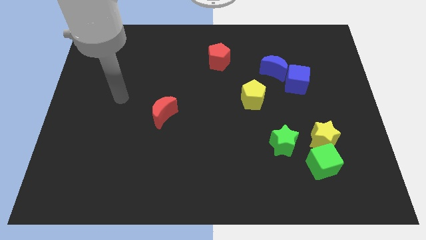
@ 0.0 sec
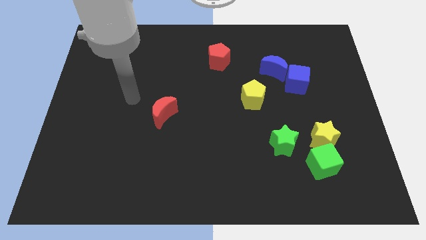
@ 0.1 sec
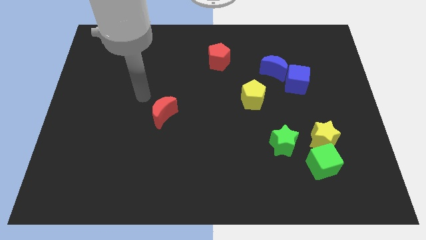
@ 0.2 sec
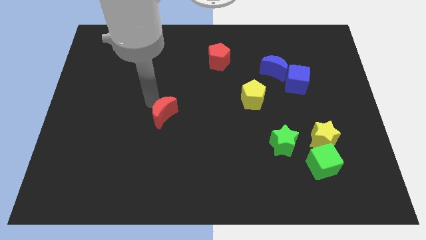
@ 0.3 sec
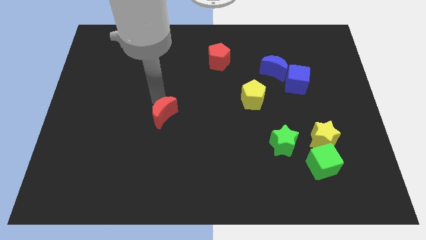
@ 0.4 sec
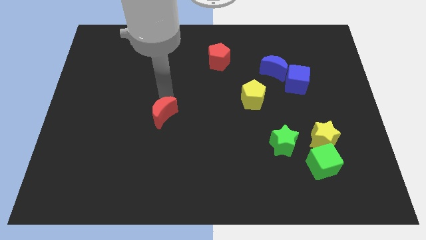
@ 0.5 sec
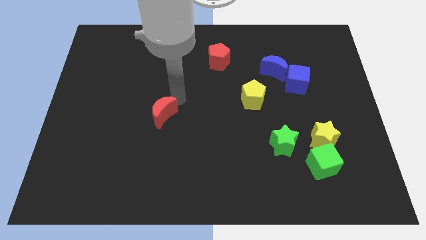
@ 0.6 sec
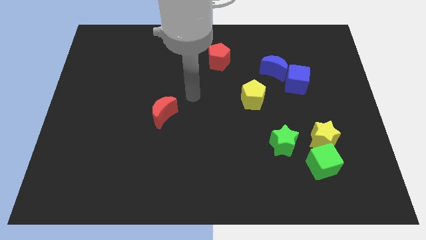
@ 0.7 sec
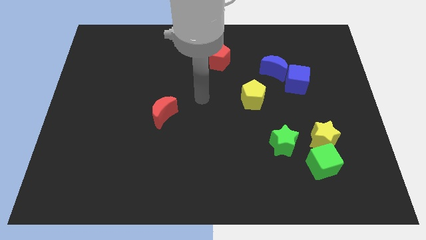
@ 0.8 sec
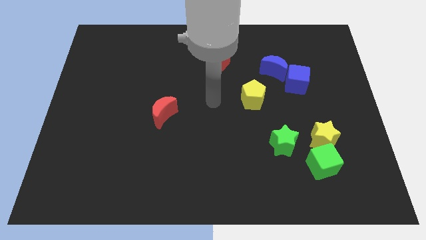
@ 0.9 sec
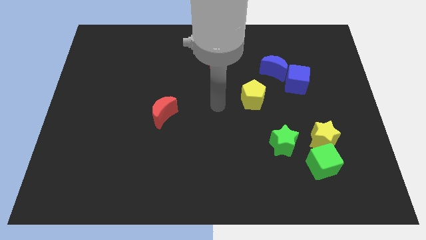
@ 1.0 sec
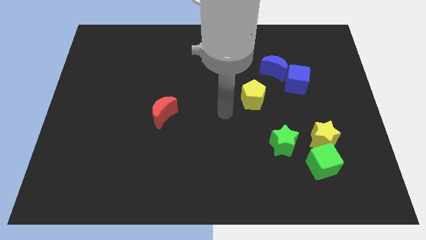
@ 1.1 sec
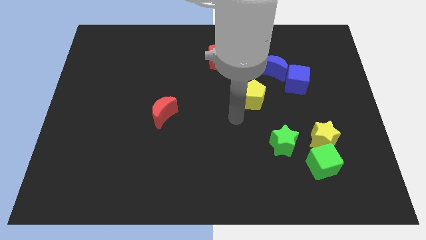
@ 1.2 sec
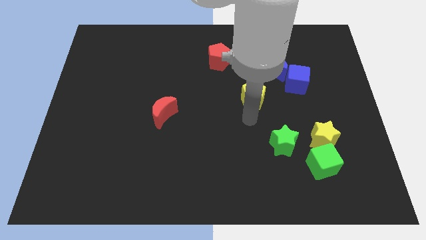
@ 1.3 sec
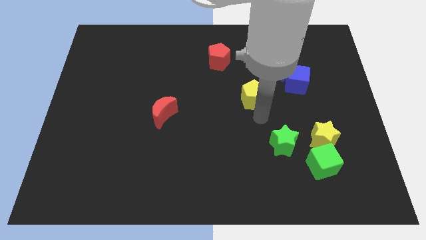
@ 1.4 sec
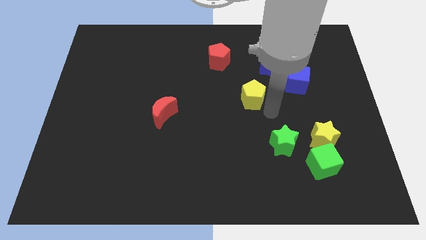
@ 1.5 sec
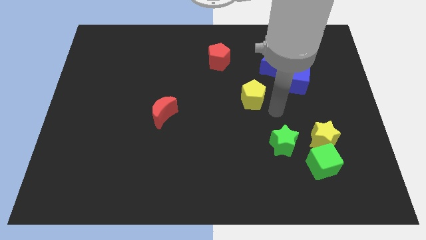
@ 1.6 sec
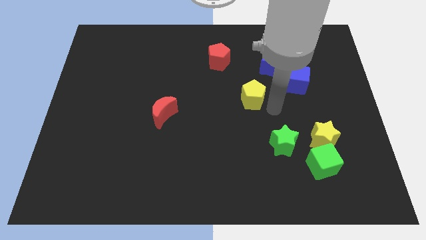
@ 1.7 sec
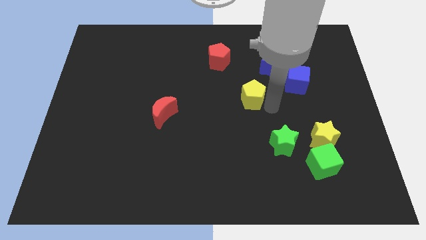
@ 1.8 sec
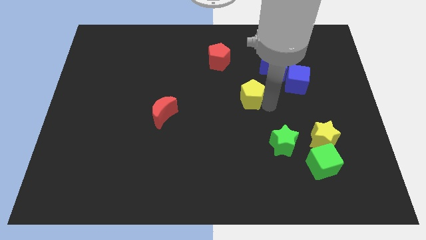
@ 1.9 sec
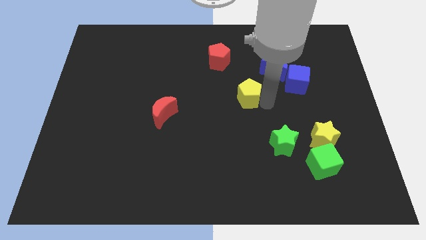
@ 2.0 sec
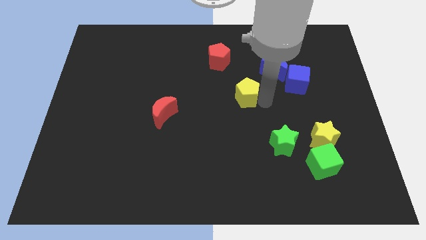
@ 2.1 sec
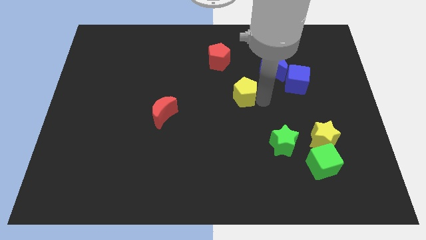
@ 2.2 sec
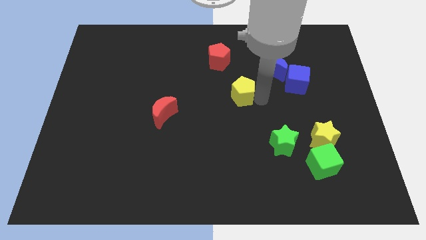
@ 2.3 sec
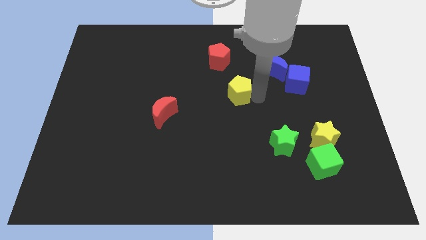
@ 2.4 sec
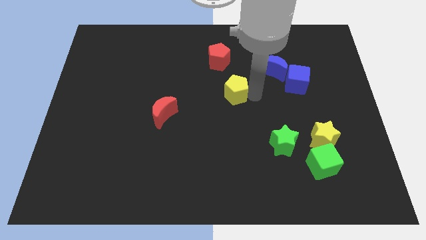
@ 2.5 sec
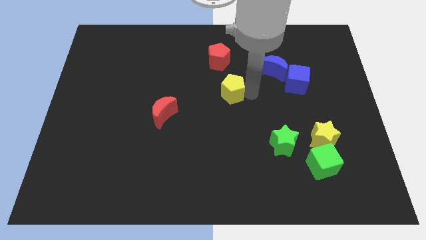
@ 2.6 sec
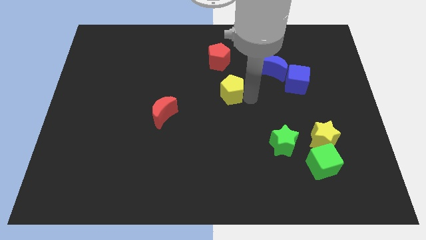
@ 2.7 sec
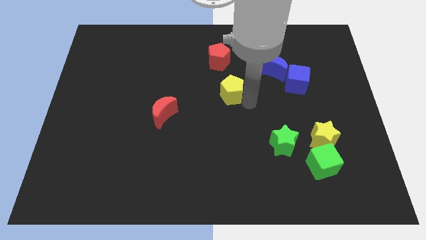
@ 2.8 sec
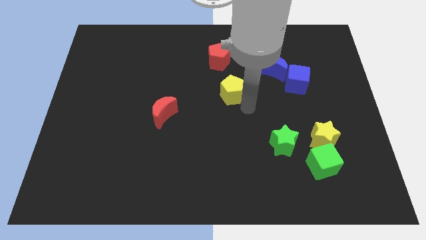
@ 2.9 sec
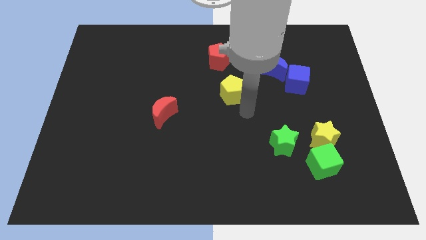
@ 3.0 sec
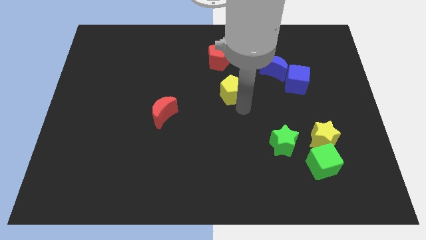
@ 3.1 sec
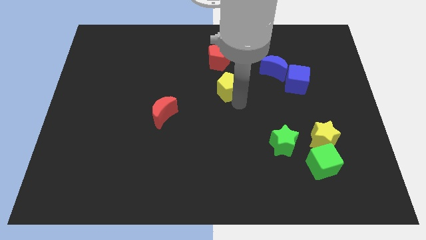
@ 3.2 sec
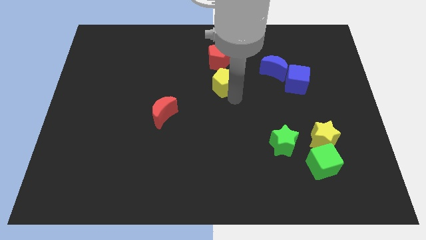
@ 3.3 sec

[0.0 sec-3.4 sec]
slightly move the yellow pentagon upwards and to the left

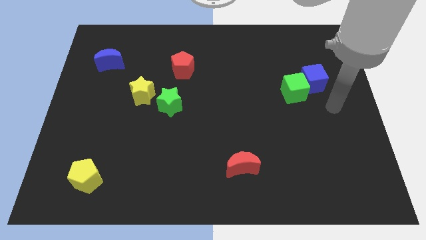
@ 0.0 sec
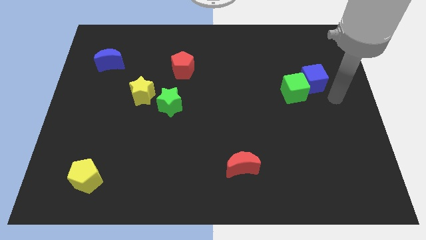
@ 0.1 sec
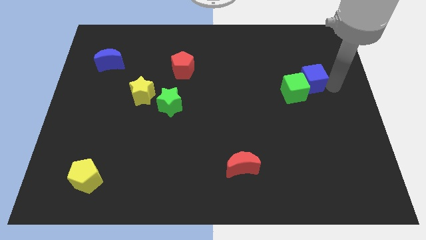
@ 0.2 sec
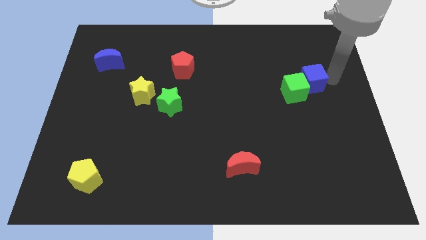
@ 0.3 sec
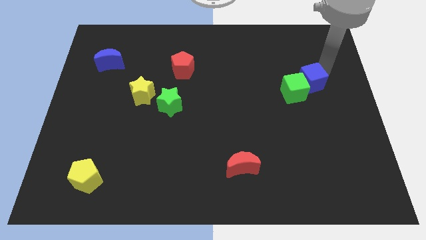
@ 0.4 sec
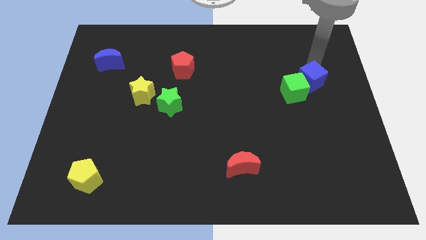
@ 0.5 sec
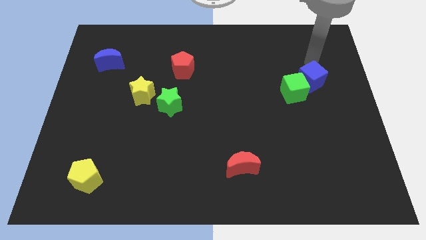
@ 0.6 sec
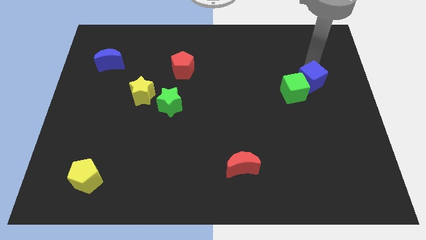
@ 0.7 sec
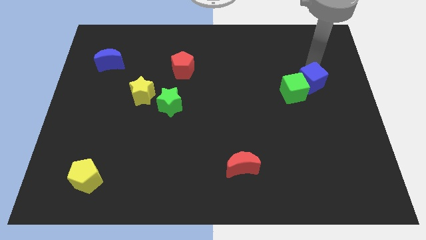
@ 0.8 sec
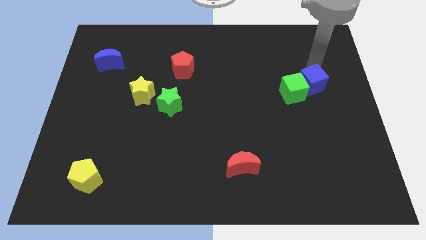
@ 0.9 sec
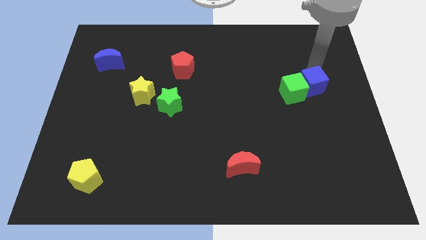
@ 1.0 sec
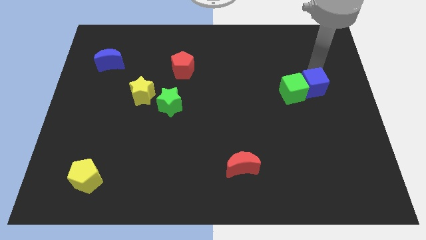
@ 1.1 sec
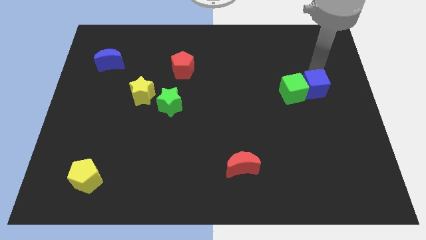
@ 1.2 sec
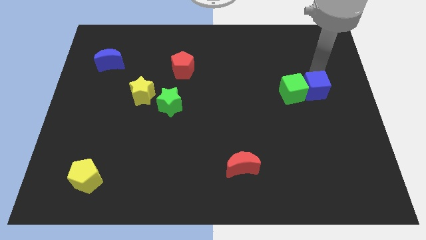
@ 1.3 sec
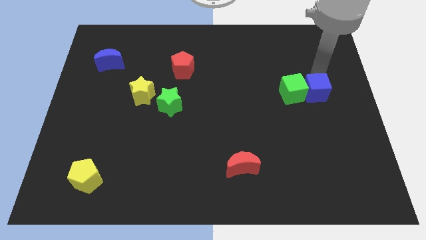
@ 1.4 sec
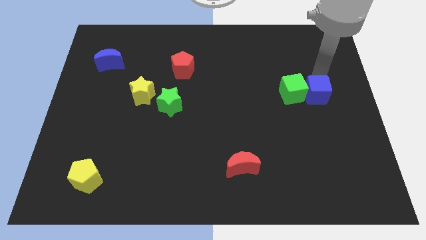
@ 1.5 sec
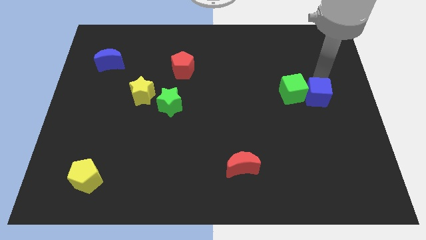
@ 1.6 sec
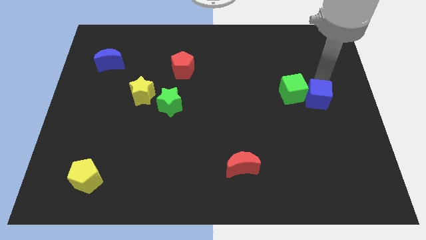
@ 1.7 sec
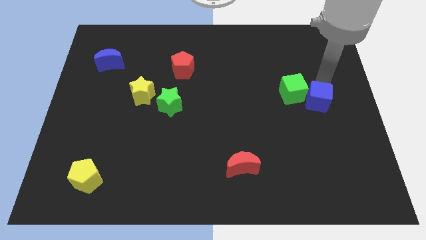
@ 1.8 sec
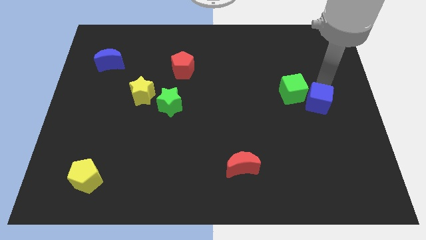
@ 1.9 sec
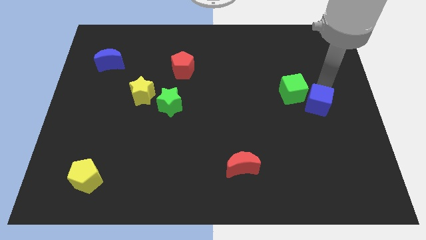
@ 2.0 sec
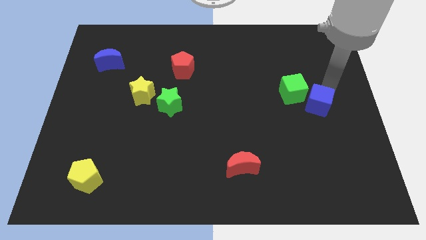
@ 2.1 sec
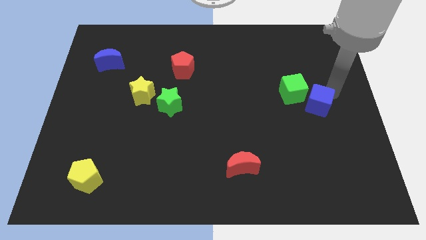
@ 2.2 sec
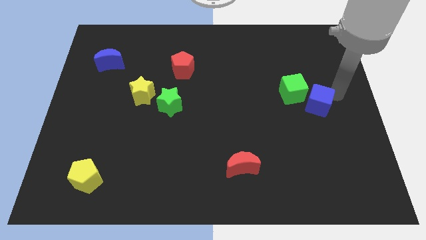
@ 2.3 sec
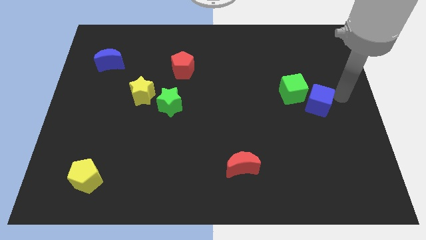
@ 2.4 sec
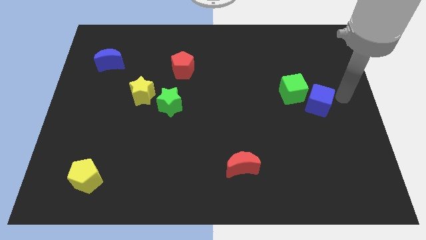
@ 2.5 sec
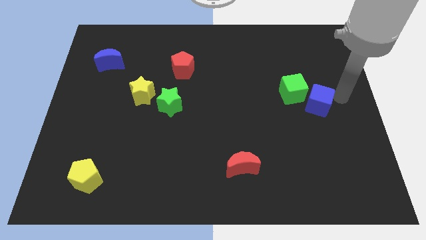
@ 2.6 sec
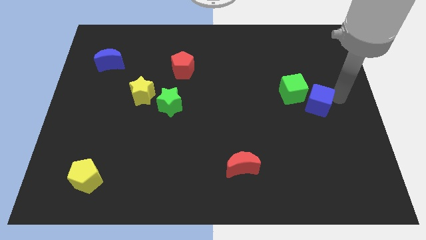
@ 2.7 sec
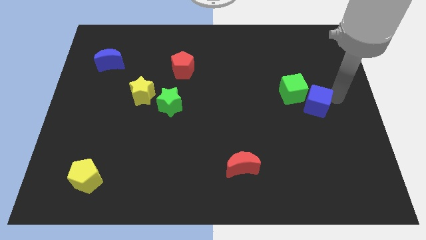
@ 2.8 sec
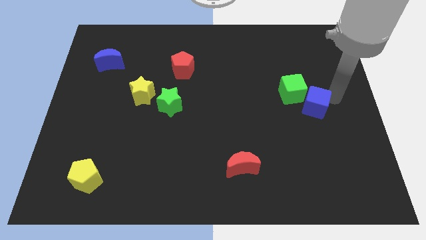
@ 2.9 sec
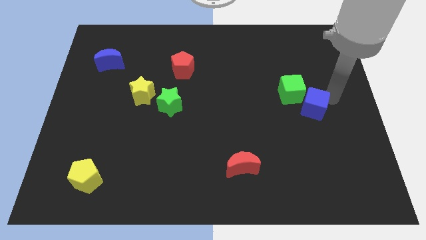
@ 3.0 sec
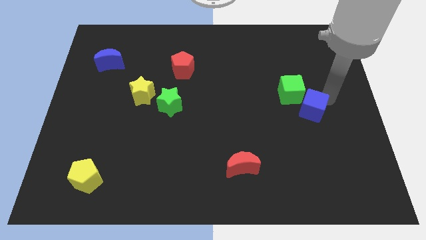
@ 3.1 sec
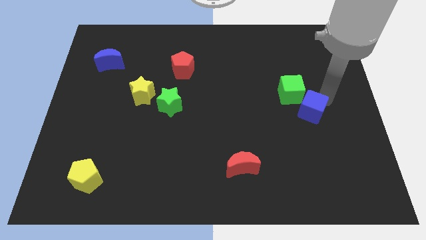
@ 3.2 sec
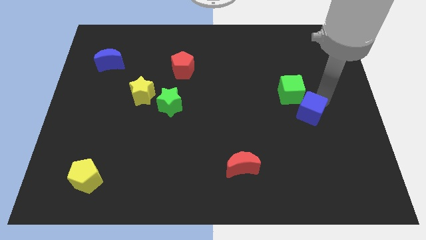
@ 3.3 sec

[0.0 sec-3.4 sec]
move the blue cube somewhat downwards and to the left diagonally

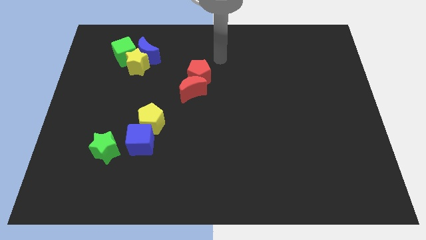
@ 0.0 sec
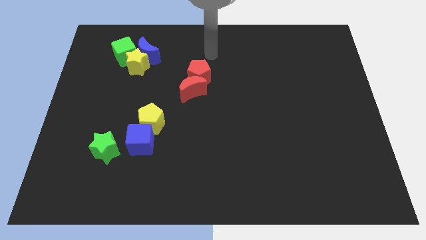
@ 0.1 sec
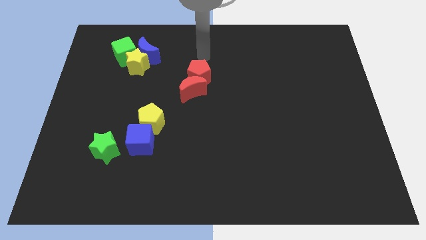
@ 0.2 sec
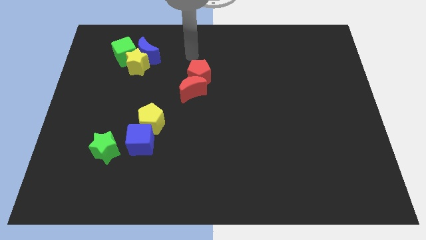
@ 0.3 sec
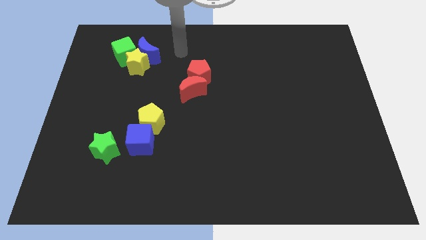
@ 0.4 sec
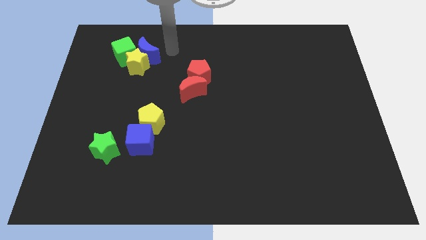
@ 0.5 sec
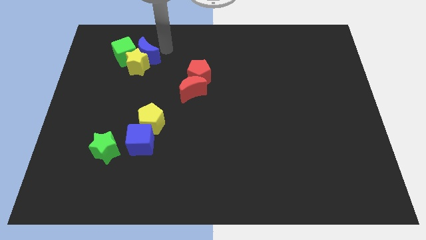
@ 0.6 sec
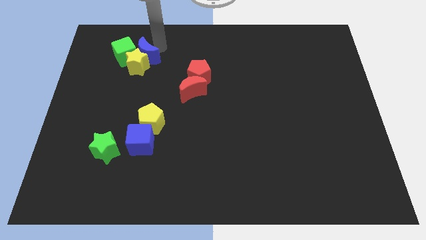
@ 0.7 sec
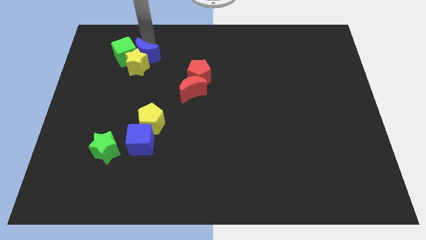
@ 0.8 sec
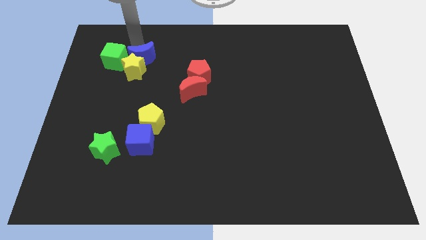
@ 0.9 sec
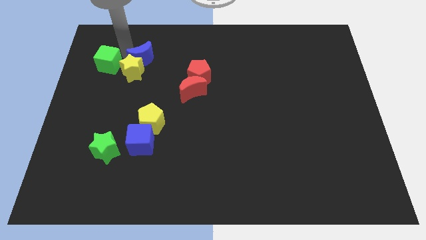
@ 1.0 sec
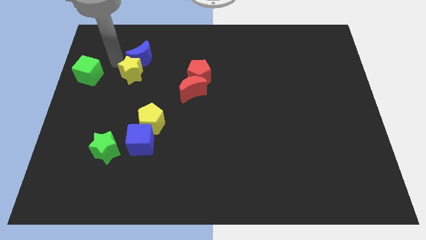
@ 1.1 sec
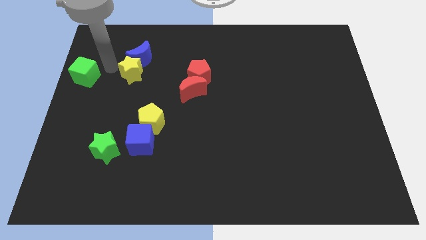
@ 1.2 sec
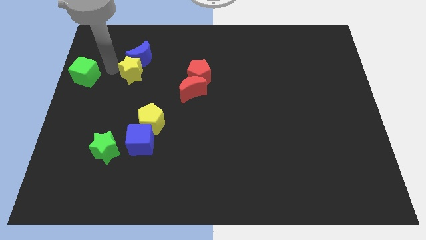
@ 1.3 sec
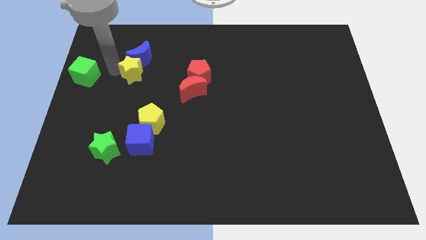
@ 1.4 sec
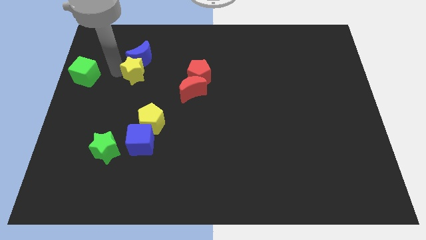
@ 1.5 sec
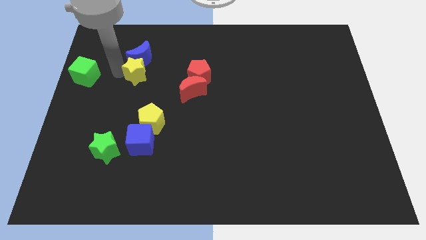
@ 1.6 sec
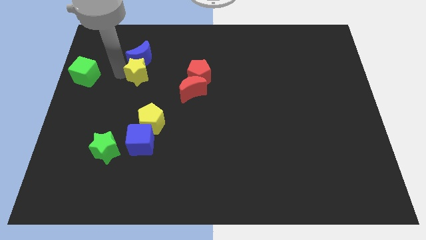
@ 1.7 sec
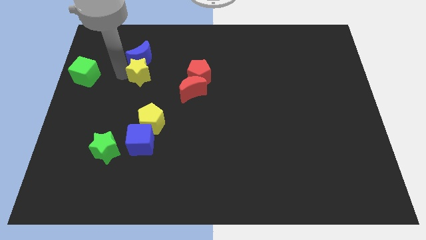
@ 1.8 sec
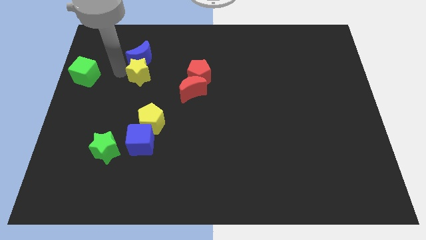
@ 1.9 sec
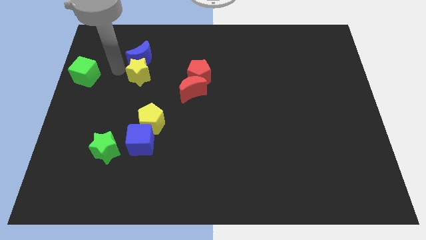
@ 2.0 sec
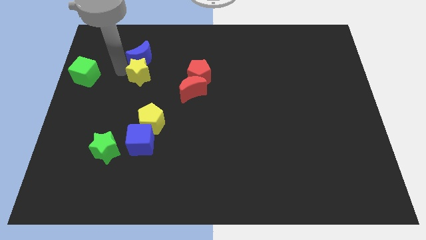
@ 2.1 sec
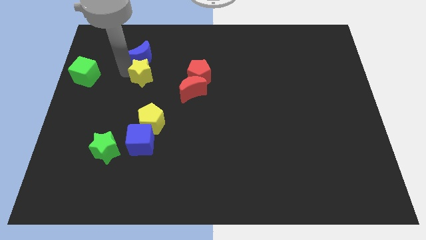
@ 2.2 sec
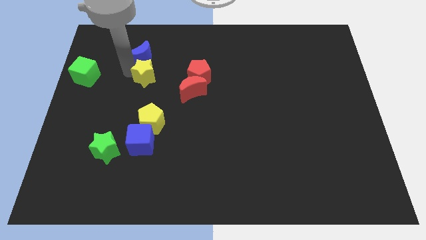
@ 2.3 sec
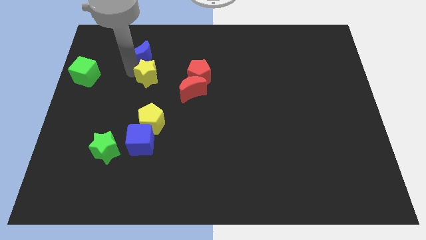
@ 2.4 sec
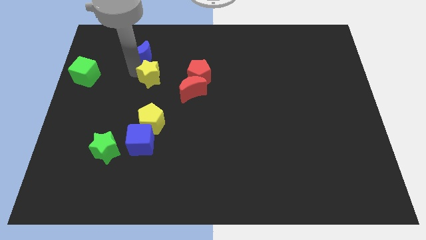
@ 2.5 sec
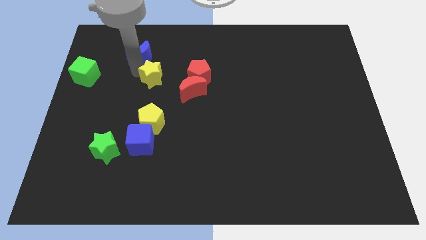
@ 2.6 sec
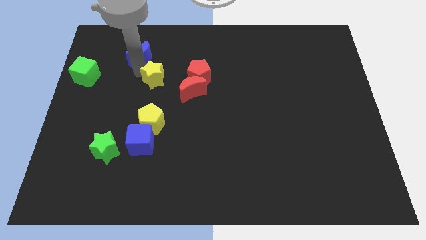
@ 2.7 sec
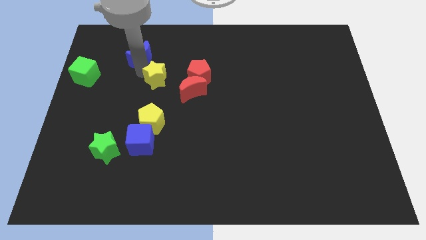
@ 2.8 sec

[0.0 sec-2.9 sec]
push the yellow star down and right somewhat
